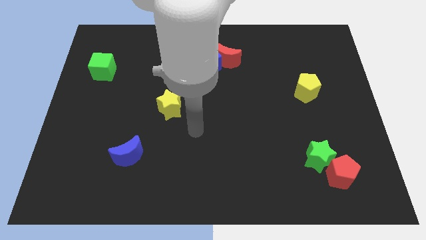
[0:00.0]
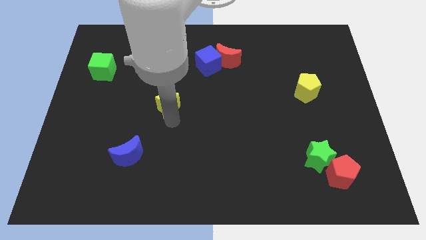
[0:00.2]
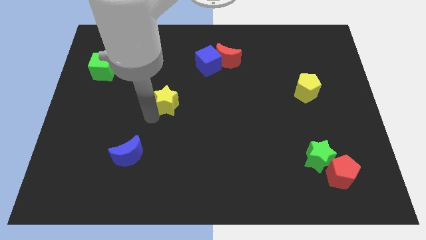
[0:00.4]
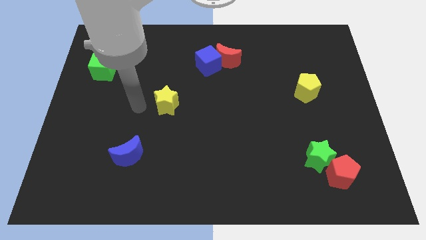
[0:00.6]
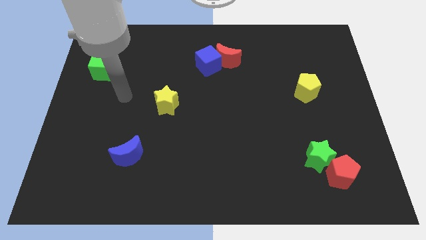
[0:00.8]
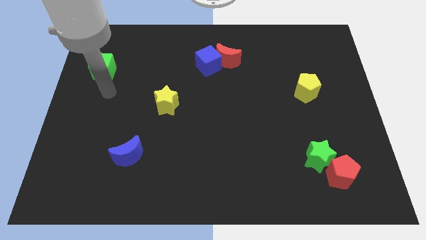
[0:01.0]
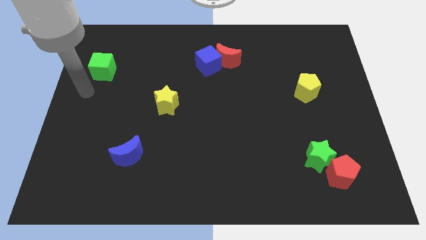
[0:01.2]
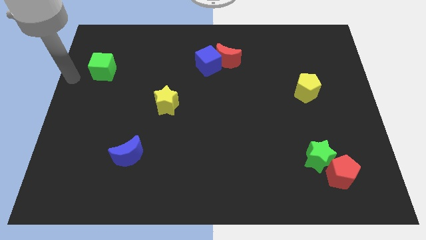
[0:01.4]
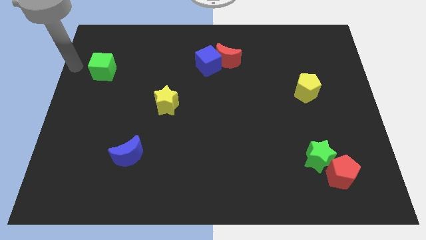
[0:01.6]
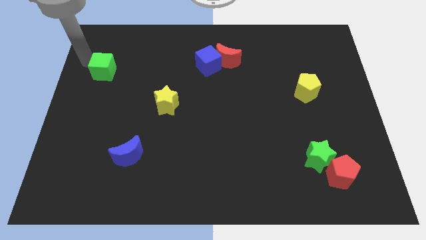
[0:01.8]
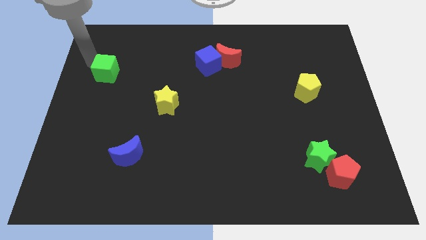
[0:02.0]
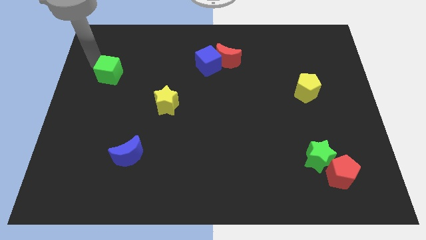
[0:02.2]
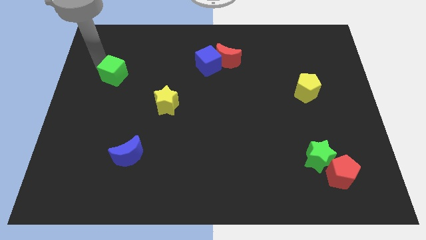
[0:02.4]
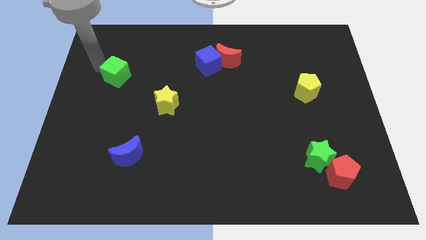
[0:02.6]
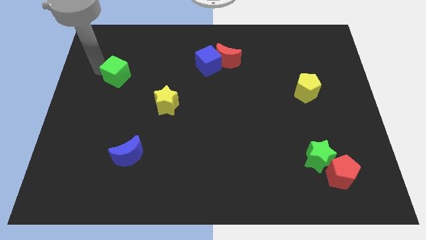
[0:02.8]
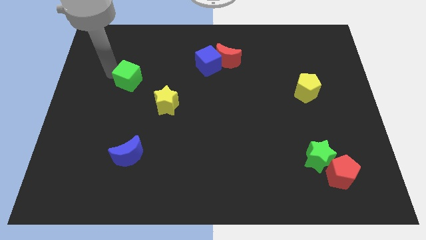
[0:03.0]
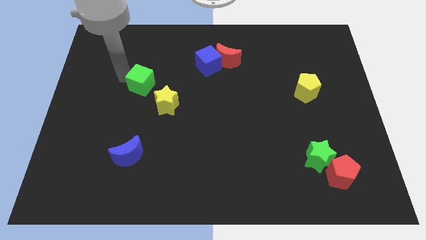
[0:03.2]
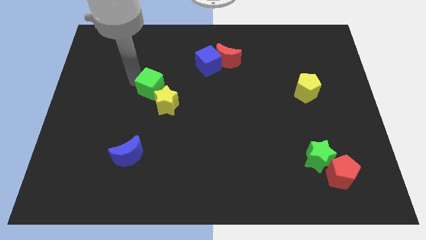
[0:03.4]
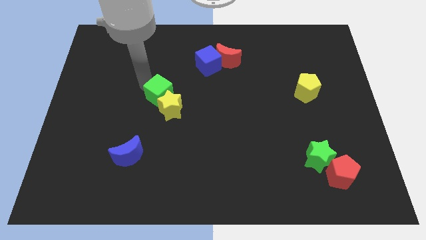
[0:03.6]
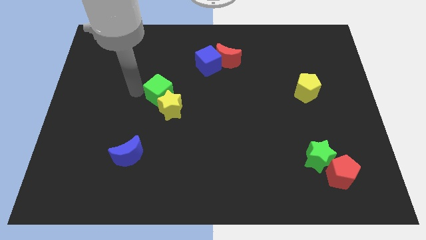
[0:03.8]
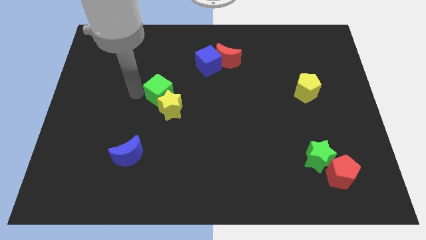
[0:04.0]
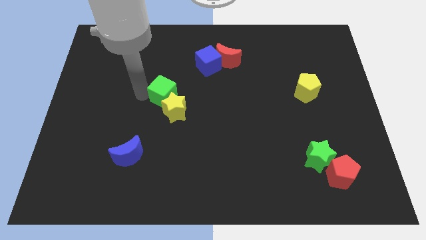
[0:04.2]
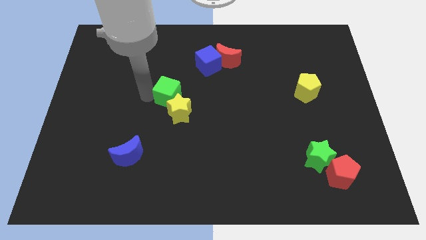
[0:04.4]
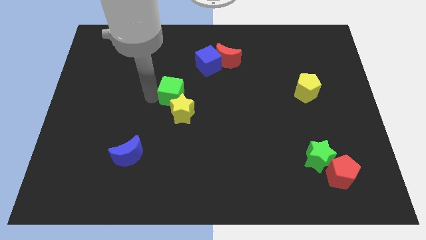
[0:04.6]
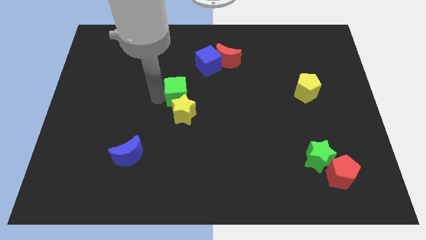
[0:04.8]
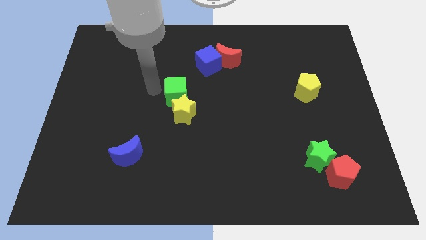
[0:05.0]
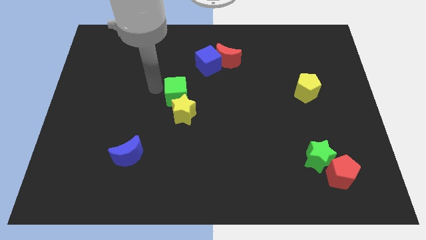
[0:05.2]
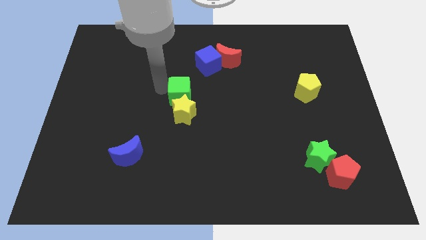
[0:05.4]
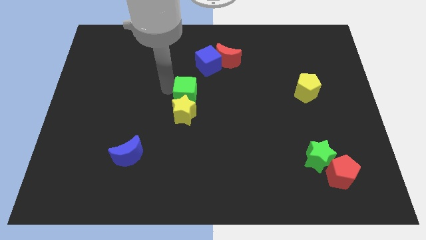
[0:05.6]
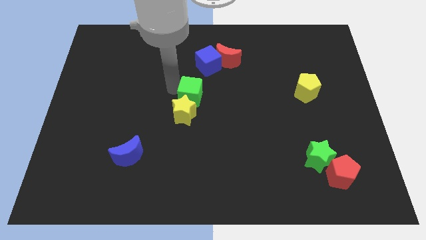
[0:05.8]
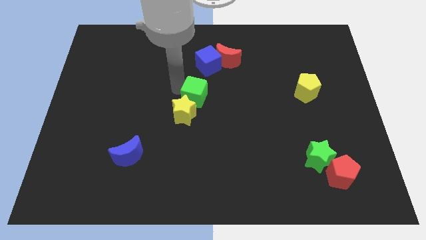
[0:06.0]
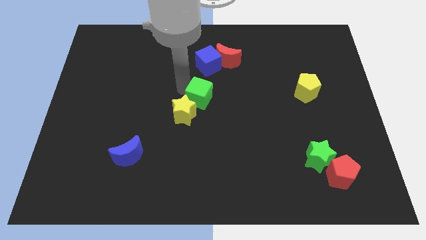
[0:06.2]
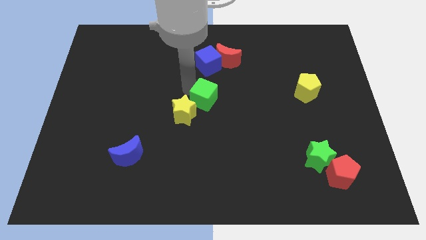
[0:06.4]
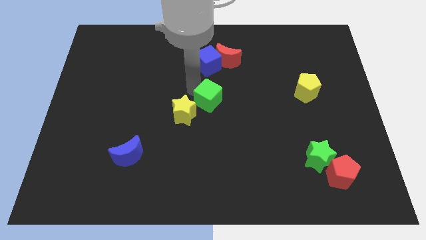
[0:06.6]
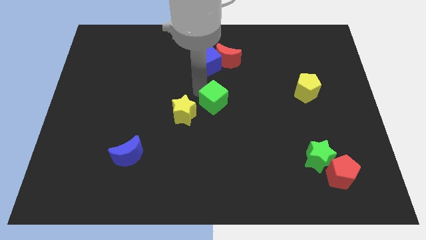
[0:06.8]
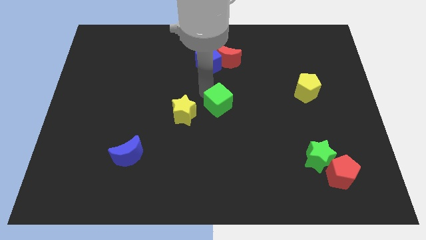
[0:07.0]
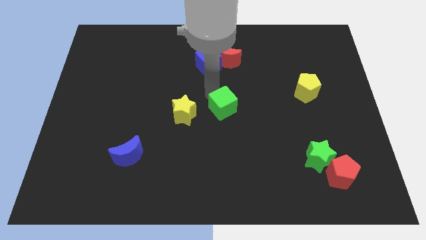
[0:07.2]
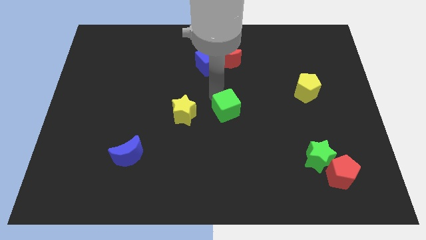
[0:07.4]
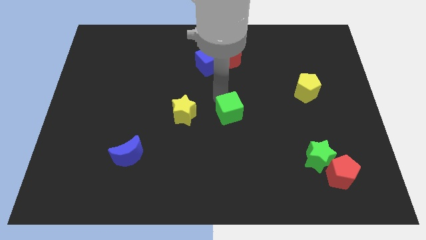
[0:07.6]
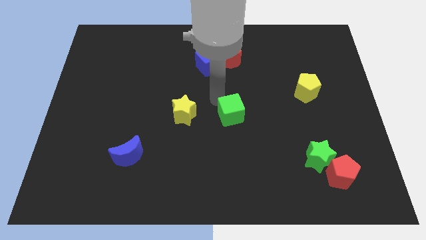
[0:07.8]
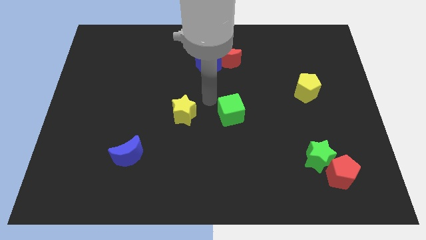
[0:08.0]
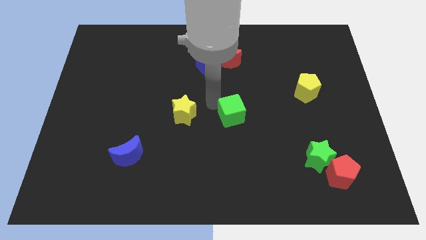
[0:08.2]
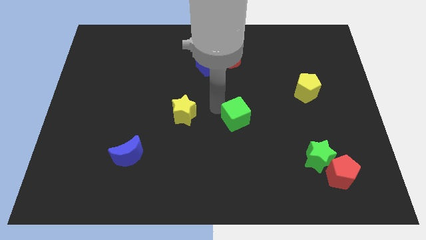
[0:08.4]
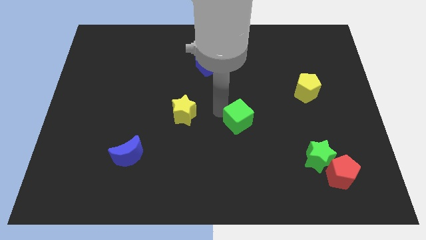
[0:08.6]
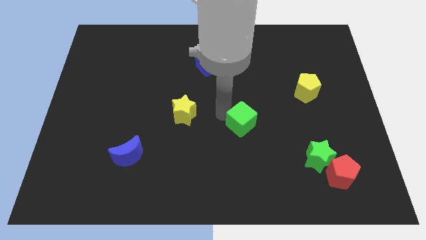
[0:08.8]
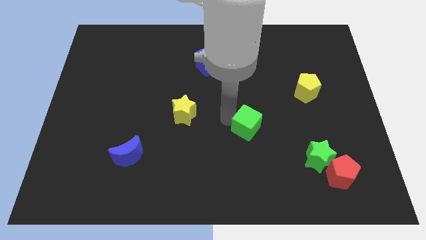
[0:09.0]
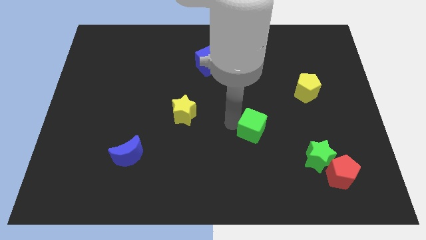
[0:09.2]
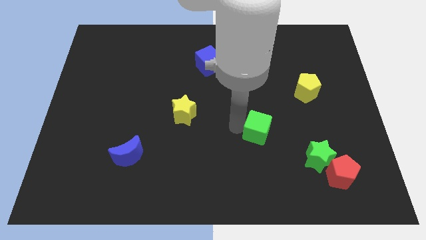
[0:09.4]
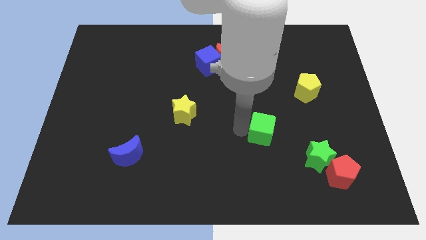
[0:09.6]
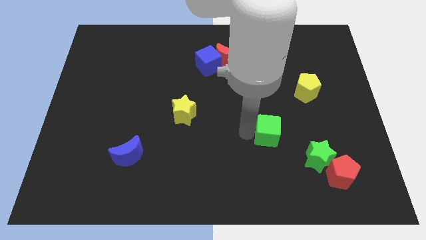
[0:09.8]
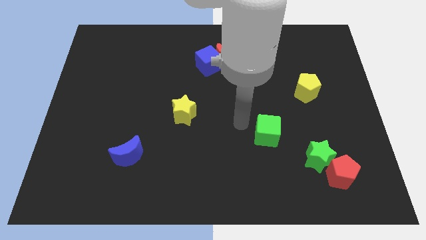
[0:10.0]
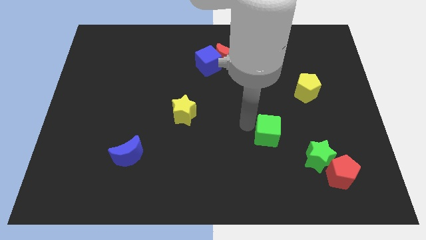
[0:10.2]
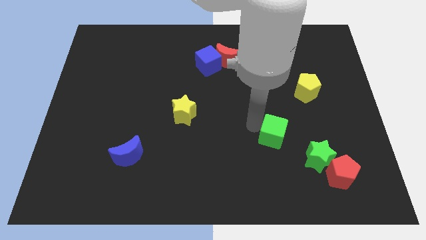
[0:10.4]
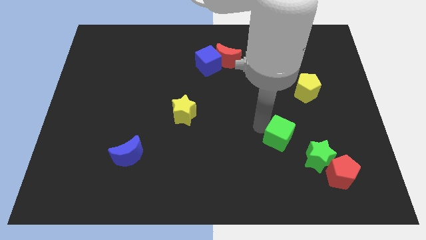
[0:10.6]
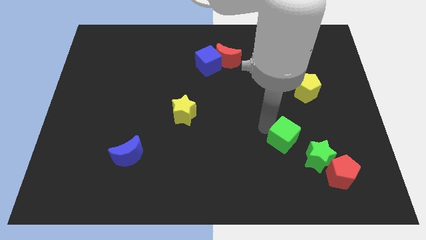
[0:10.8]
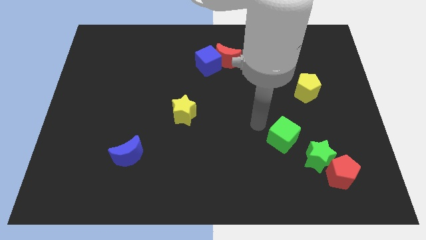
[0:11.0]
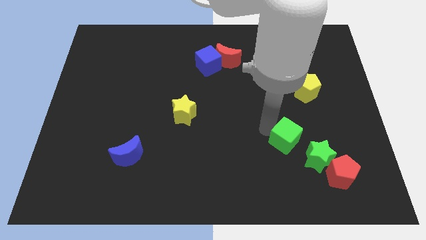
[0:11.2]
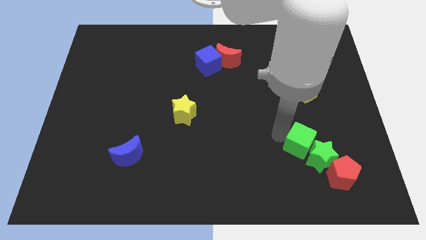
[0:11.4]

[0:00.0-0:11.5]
slide the green cube to the green star

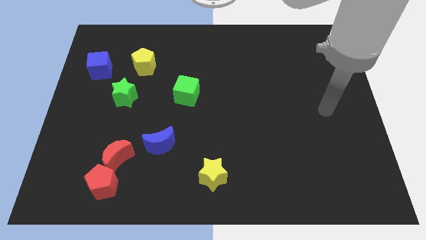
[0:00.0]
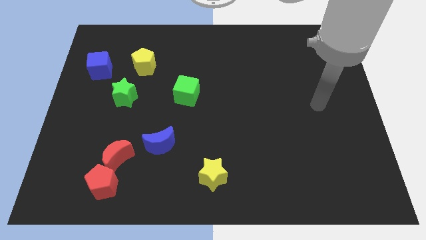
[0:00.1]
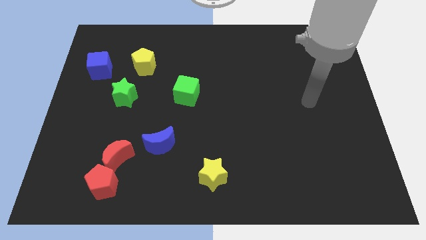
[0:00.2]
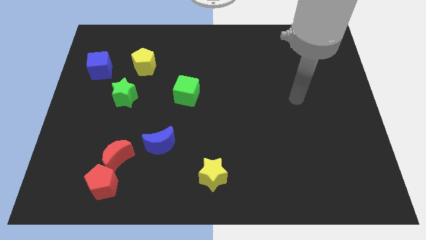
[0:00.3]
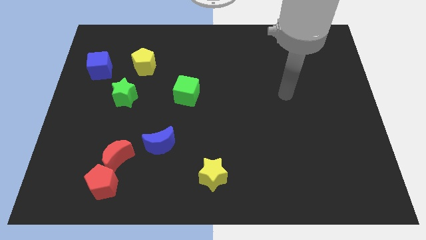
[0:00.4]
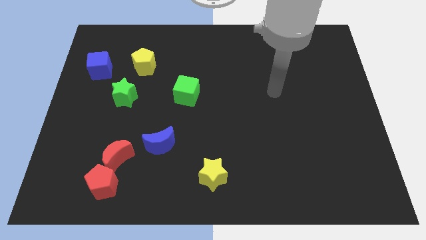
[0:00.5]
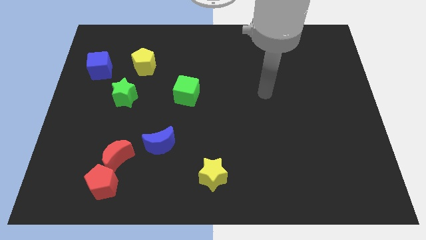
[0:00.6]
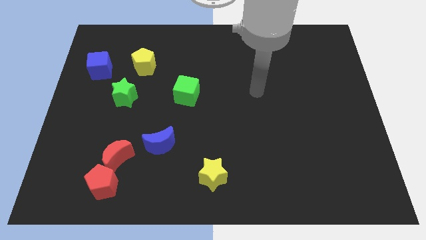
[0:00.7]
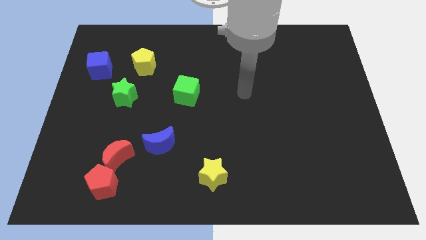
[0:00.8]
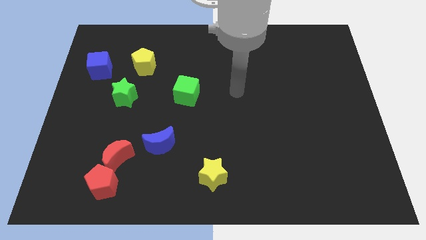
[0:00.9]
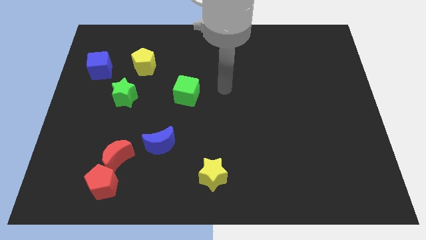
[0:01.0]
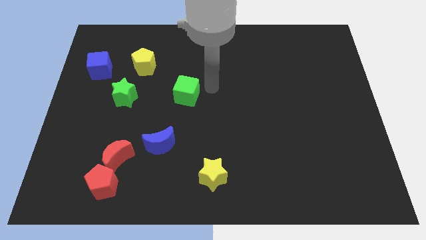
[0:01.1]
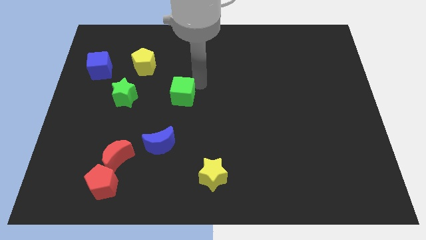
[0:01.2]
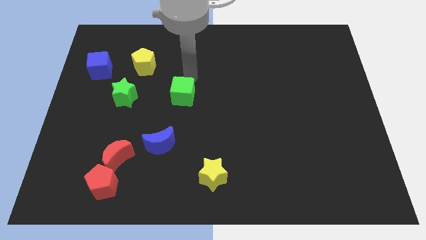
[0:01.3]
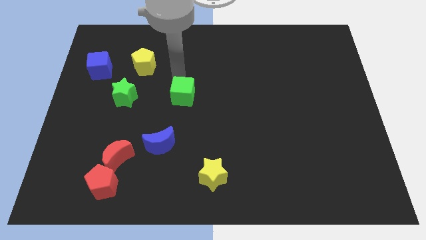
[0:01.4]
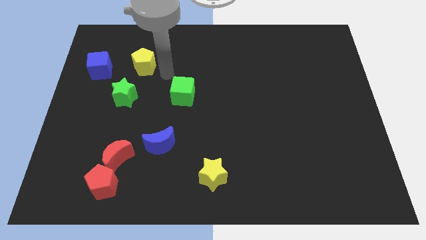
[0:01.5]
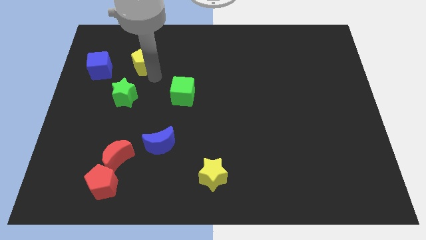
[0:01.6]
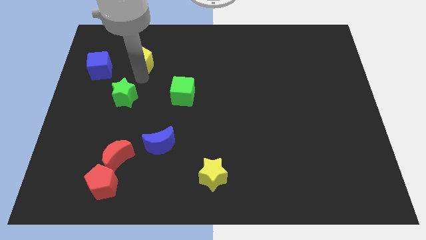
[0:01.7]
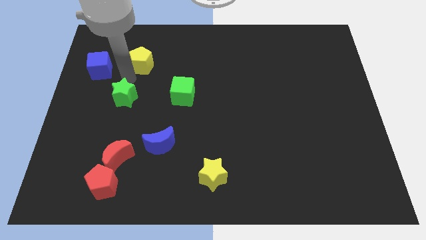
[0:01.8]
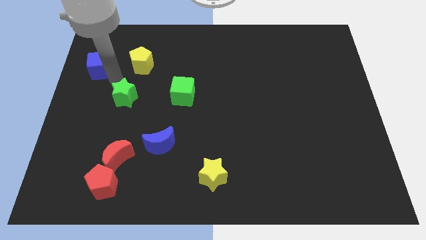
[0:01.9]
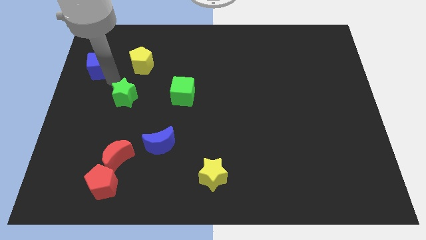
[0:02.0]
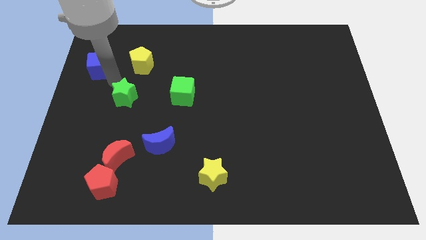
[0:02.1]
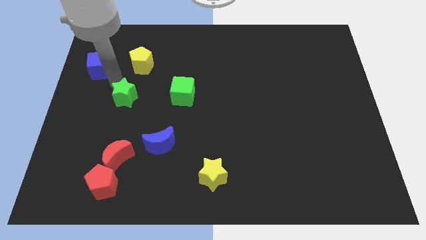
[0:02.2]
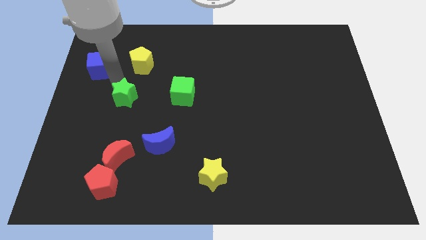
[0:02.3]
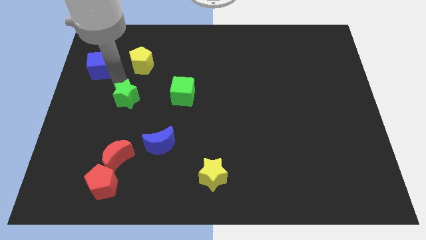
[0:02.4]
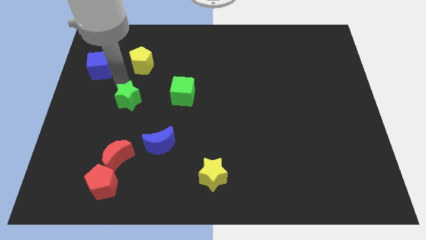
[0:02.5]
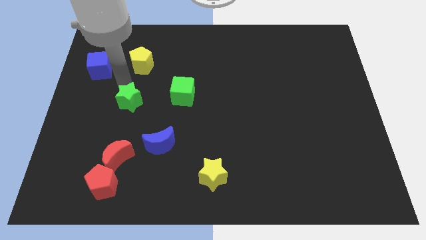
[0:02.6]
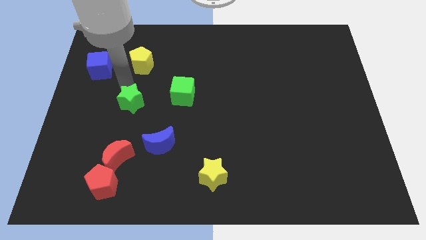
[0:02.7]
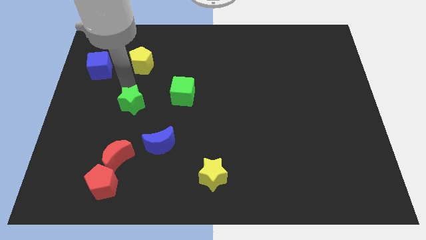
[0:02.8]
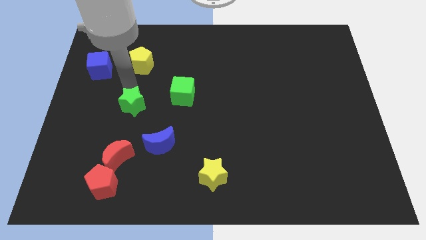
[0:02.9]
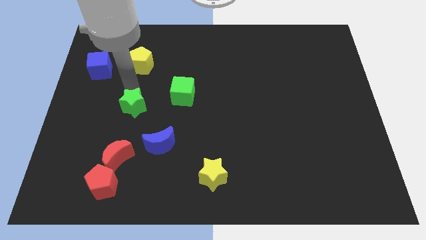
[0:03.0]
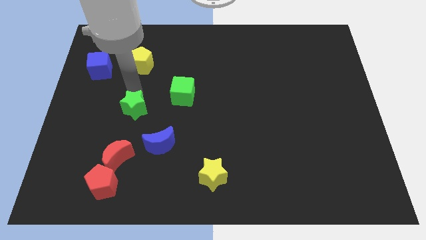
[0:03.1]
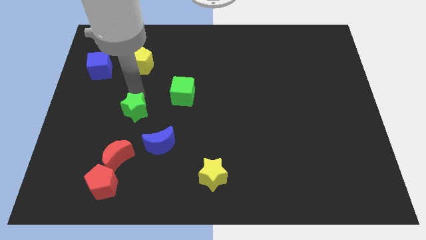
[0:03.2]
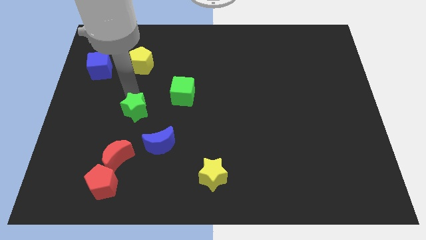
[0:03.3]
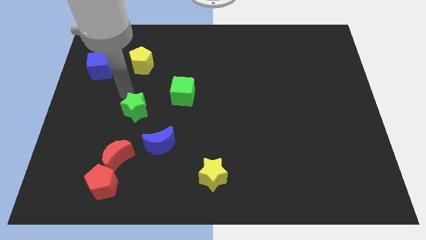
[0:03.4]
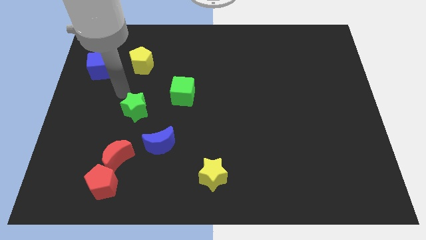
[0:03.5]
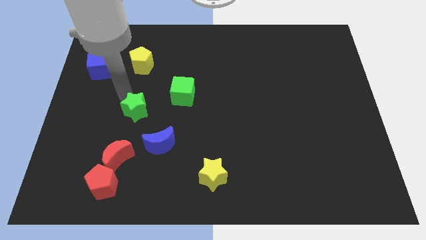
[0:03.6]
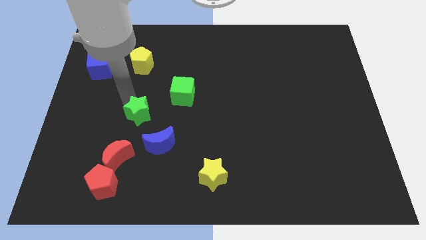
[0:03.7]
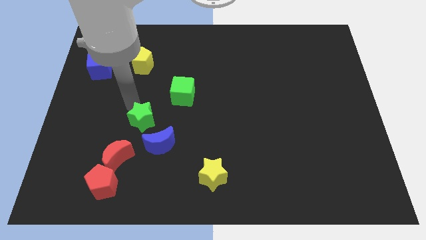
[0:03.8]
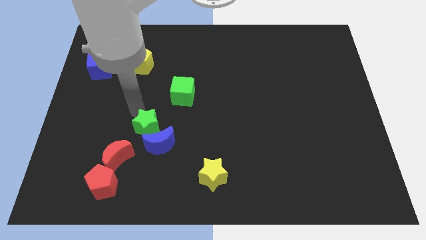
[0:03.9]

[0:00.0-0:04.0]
put the green star to the blue moon
